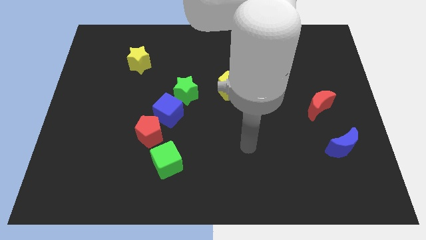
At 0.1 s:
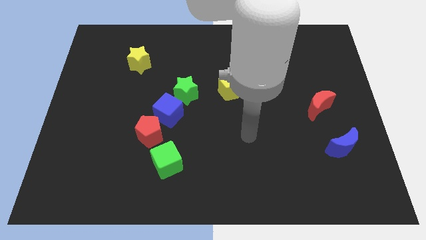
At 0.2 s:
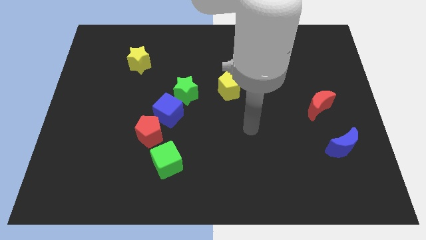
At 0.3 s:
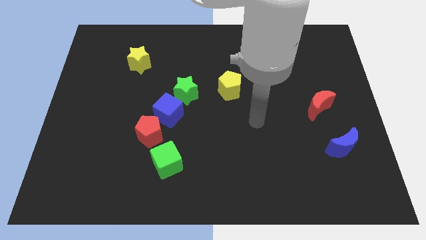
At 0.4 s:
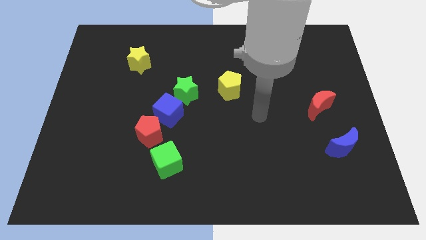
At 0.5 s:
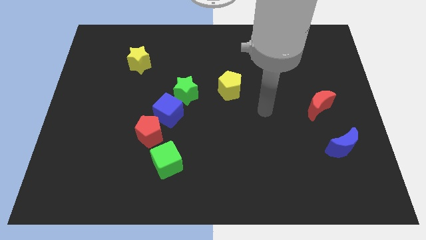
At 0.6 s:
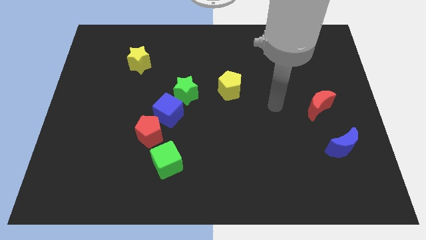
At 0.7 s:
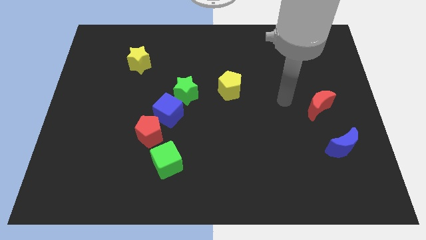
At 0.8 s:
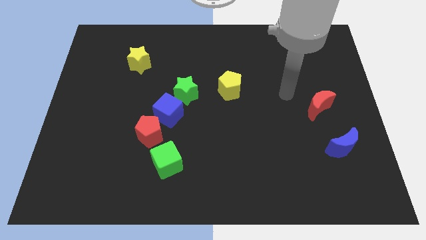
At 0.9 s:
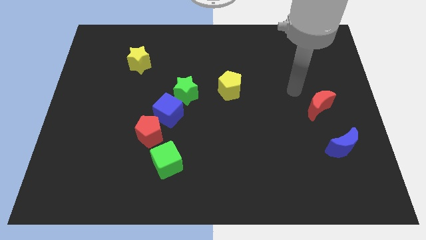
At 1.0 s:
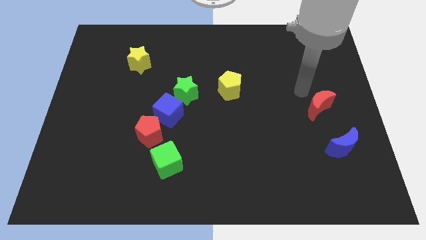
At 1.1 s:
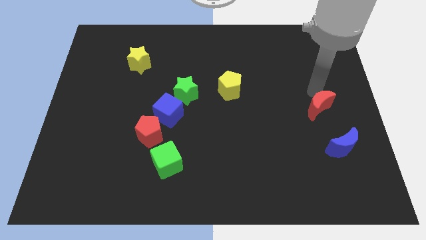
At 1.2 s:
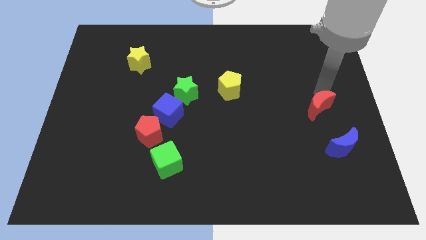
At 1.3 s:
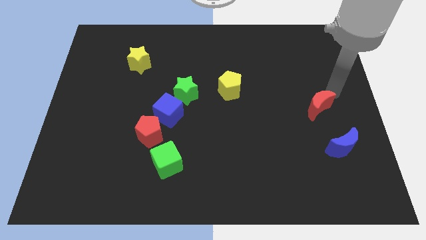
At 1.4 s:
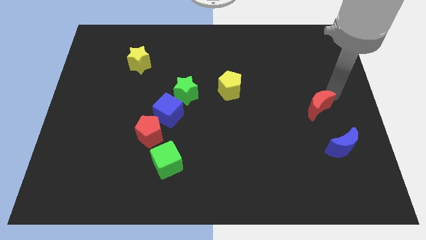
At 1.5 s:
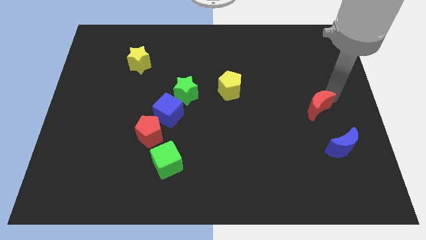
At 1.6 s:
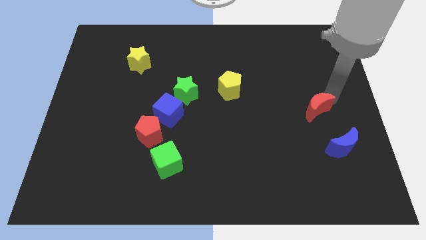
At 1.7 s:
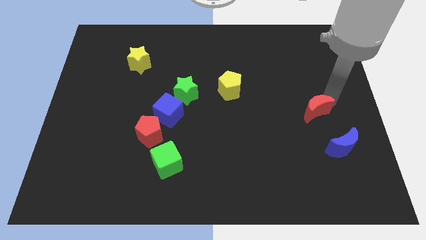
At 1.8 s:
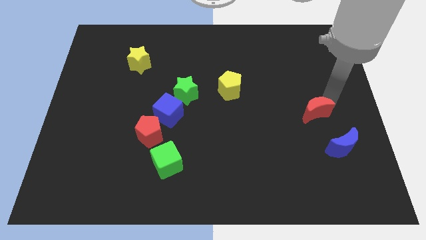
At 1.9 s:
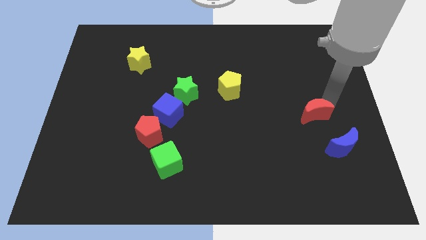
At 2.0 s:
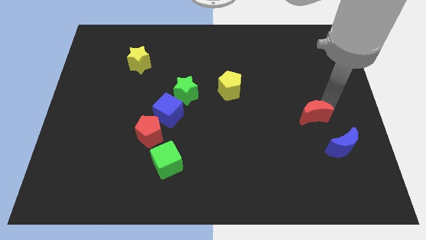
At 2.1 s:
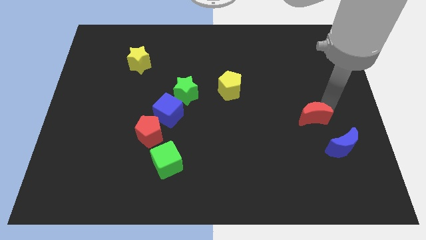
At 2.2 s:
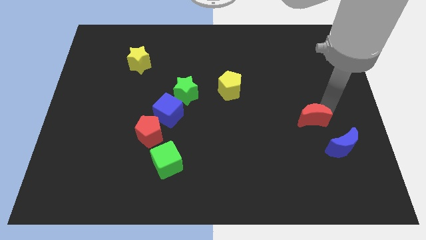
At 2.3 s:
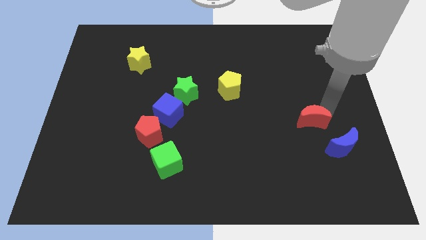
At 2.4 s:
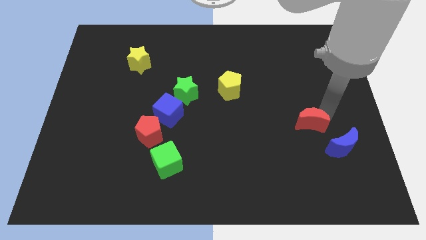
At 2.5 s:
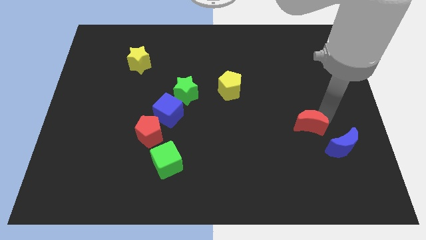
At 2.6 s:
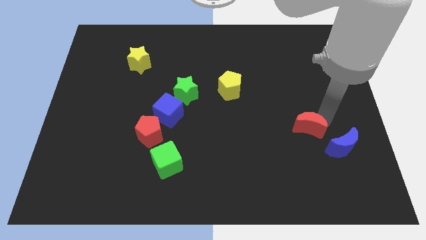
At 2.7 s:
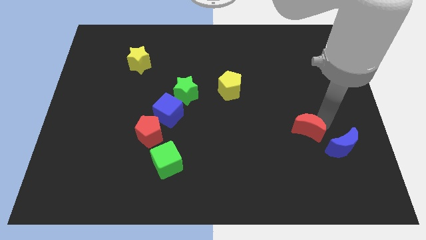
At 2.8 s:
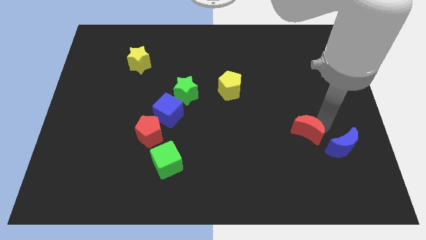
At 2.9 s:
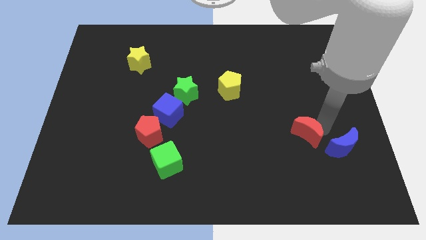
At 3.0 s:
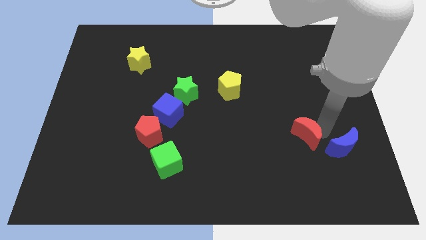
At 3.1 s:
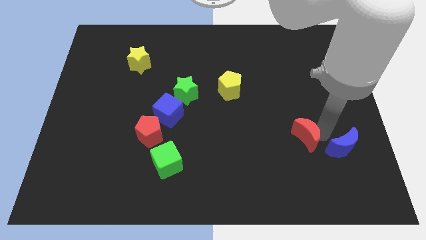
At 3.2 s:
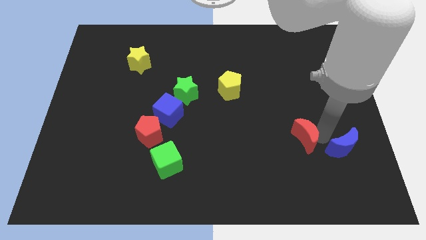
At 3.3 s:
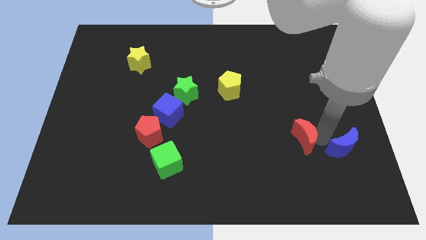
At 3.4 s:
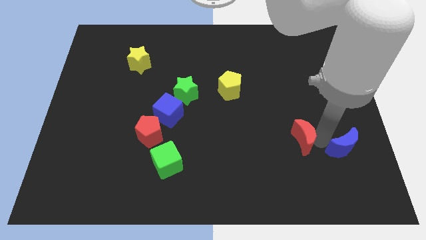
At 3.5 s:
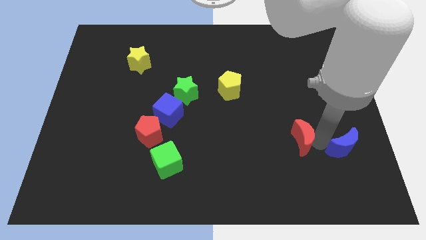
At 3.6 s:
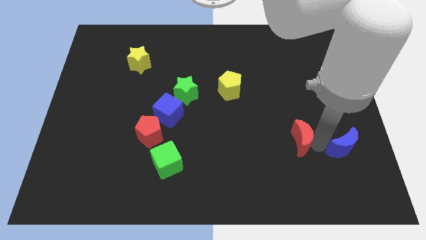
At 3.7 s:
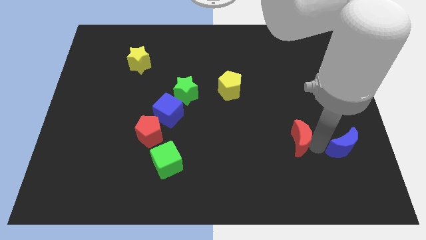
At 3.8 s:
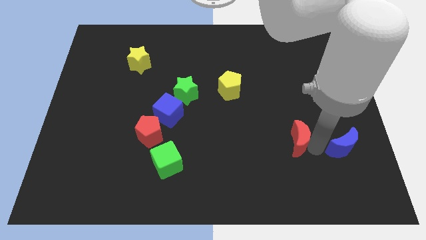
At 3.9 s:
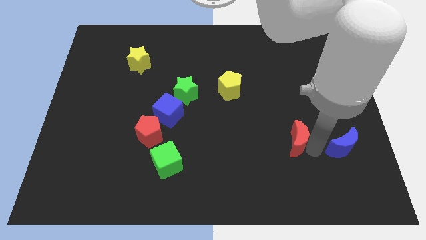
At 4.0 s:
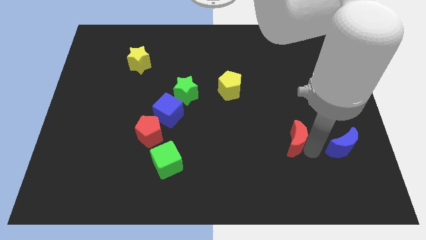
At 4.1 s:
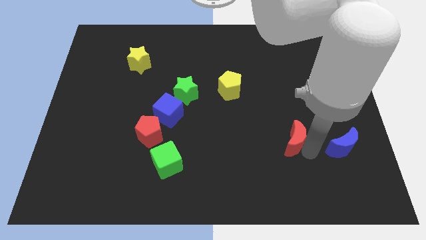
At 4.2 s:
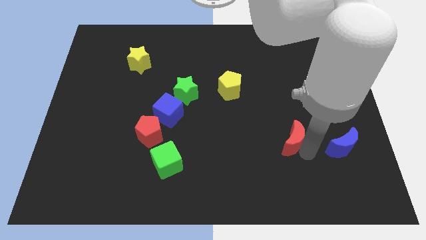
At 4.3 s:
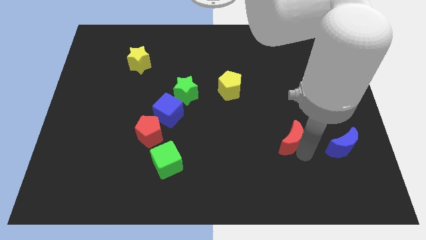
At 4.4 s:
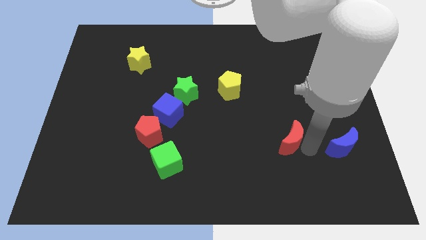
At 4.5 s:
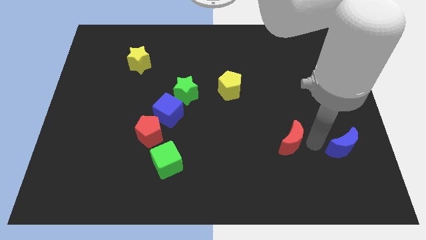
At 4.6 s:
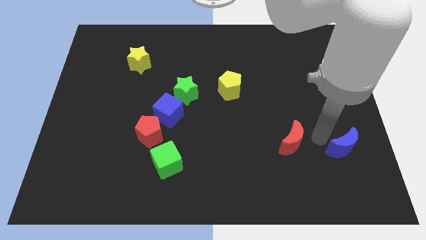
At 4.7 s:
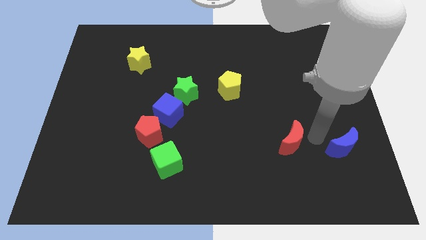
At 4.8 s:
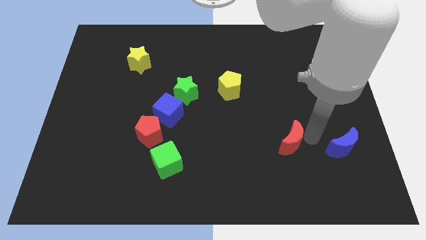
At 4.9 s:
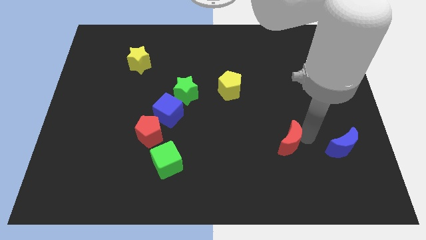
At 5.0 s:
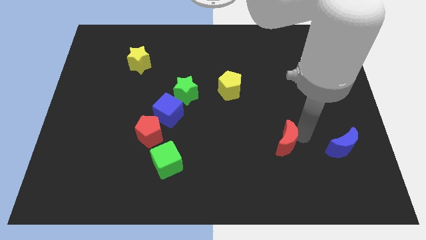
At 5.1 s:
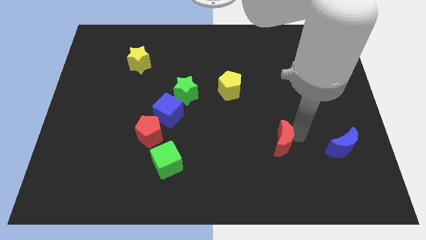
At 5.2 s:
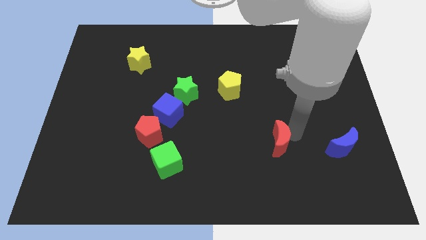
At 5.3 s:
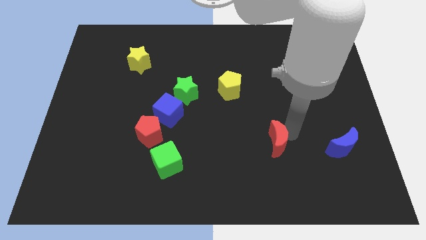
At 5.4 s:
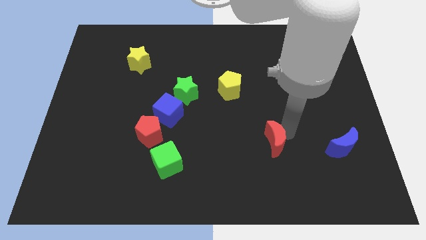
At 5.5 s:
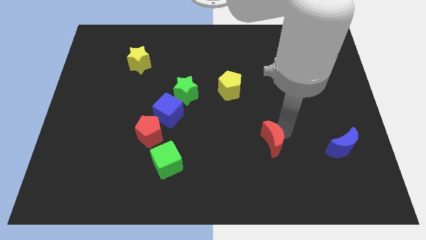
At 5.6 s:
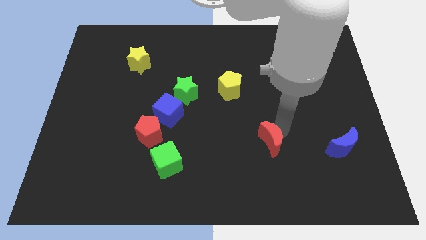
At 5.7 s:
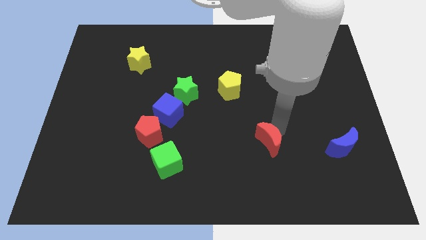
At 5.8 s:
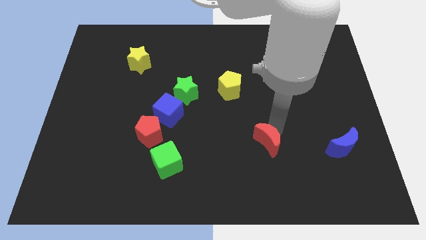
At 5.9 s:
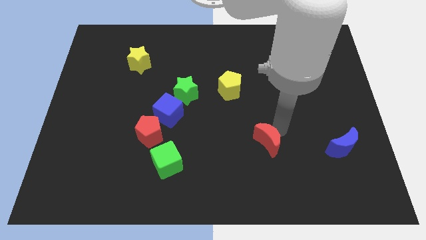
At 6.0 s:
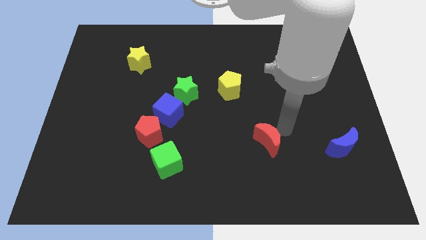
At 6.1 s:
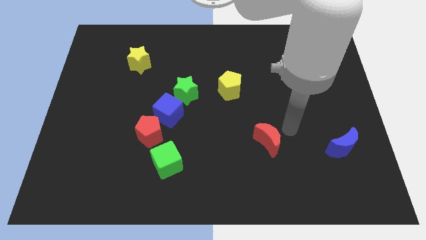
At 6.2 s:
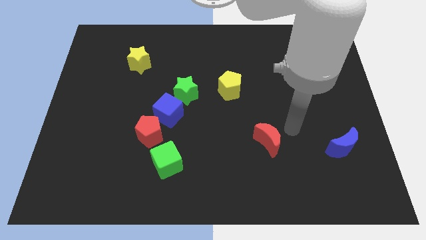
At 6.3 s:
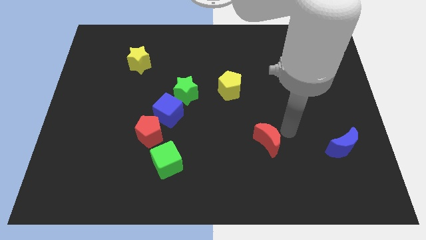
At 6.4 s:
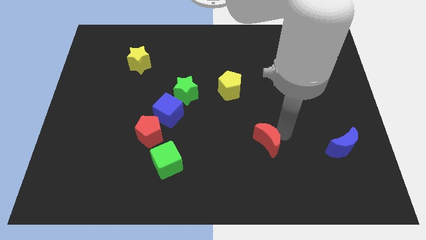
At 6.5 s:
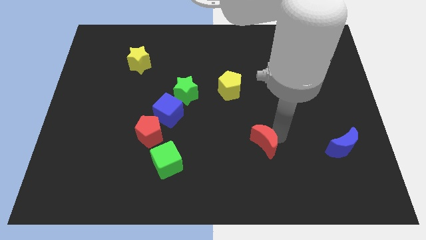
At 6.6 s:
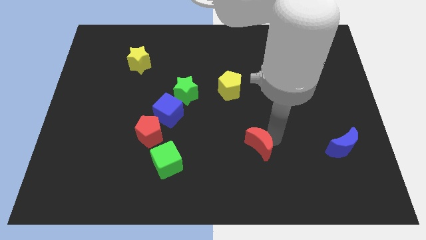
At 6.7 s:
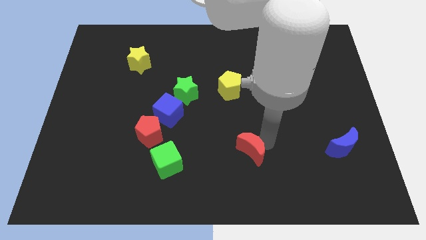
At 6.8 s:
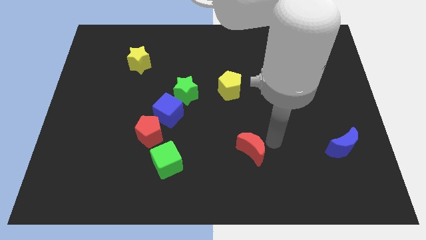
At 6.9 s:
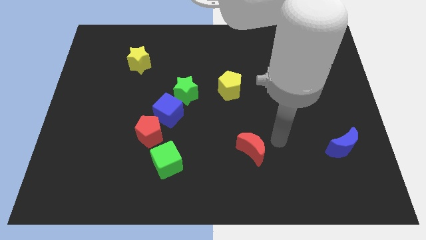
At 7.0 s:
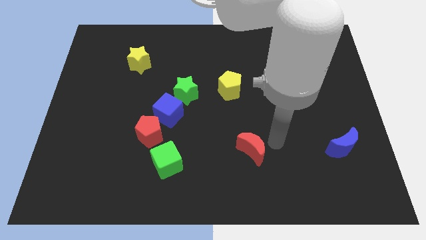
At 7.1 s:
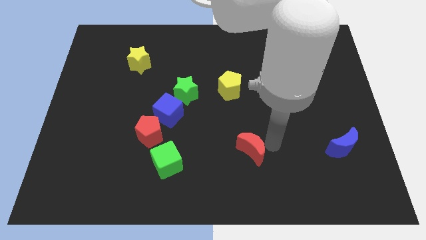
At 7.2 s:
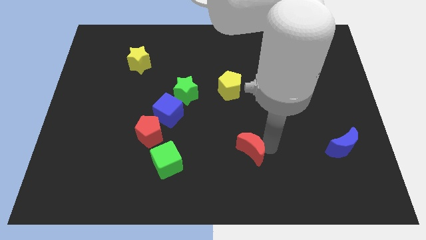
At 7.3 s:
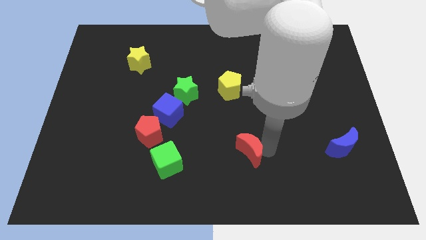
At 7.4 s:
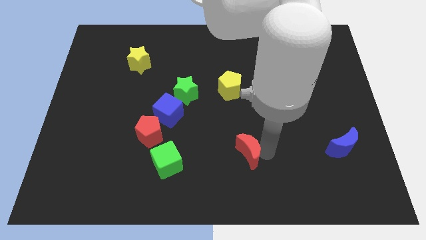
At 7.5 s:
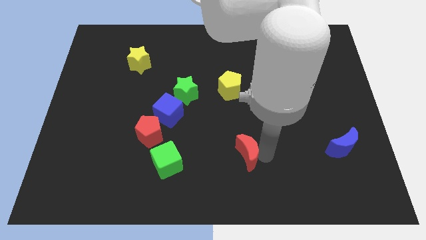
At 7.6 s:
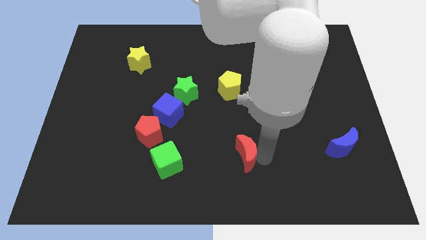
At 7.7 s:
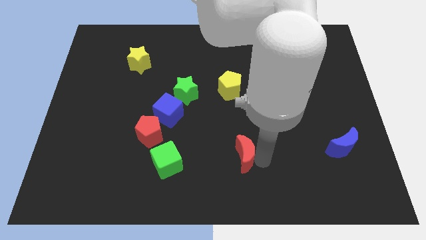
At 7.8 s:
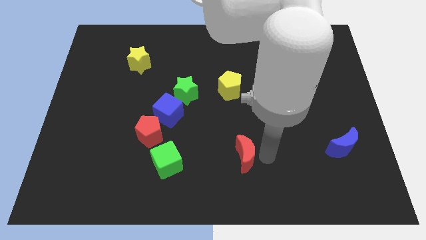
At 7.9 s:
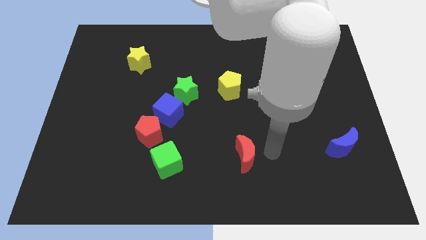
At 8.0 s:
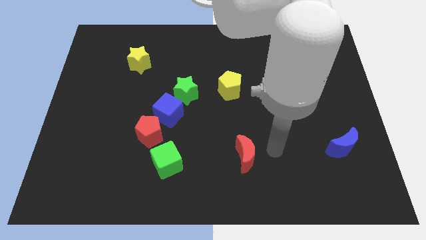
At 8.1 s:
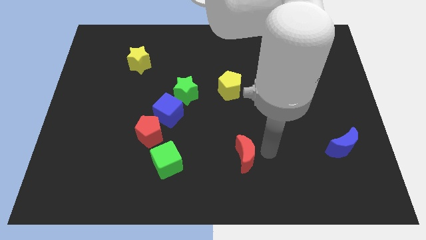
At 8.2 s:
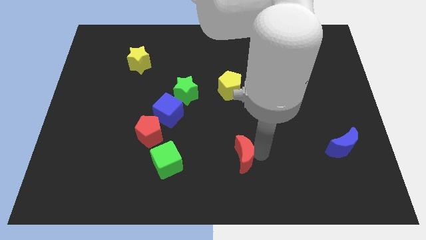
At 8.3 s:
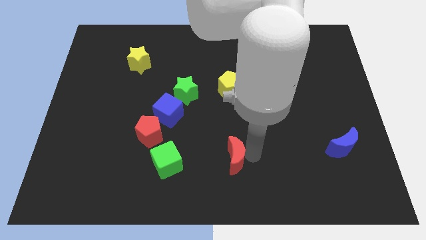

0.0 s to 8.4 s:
put the red moon just right of the green cube
